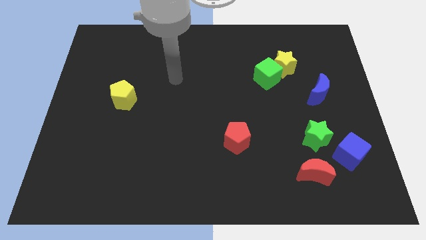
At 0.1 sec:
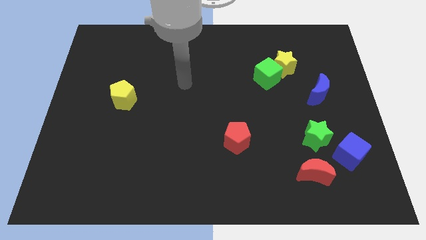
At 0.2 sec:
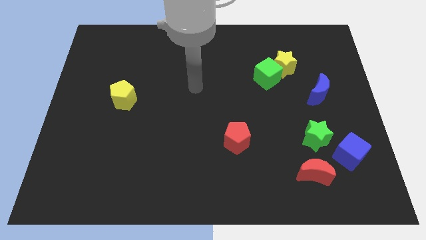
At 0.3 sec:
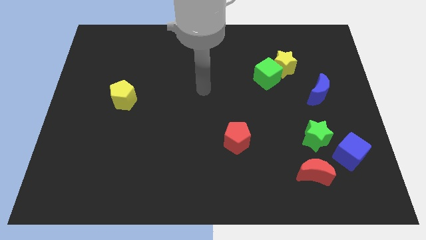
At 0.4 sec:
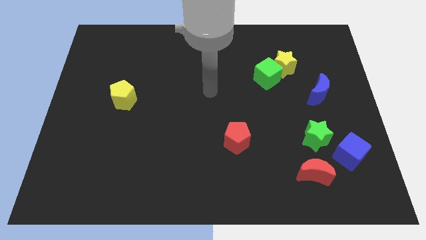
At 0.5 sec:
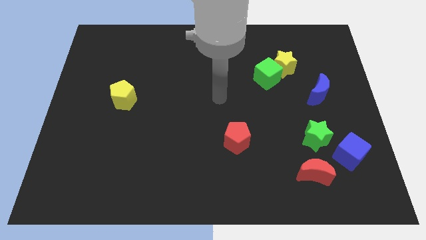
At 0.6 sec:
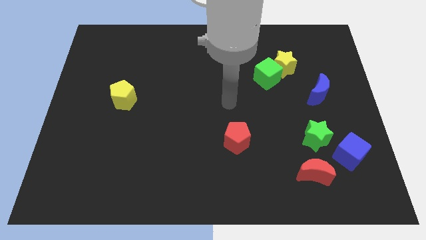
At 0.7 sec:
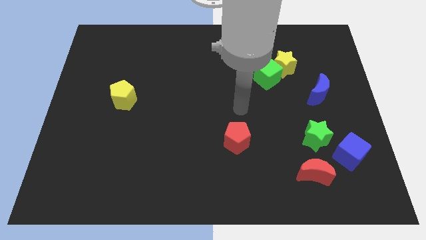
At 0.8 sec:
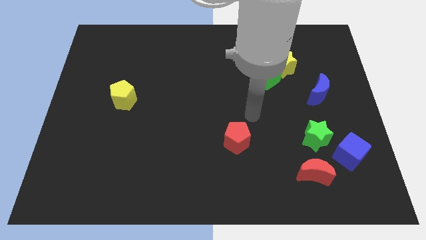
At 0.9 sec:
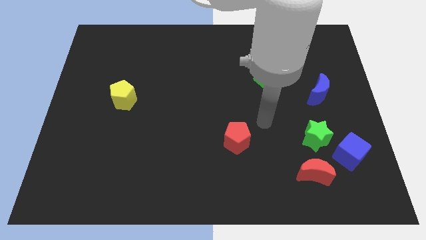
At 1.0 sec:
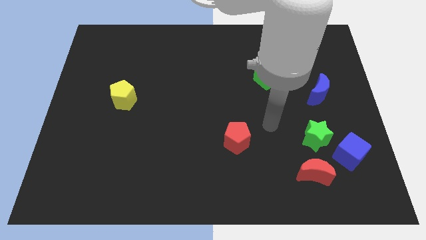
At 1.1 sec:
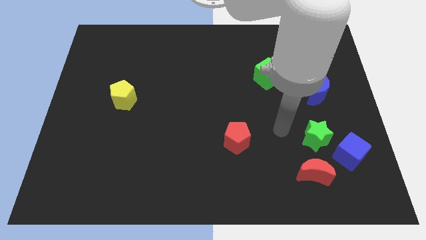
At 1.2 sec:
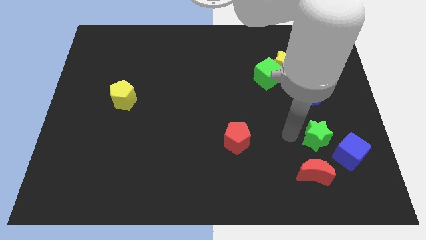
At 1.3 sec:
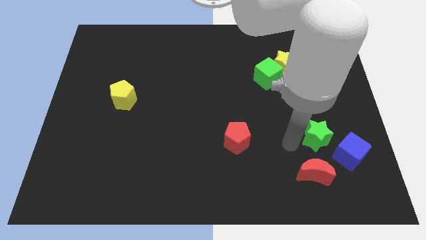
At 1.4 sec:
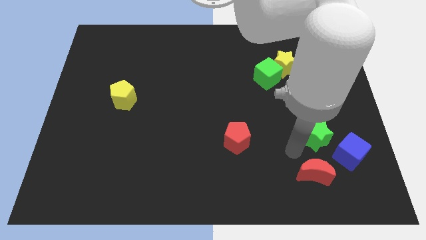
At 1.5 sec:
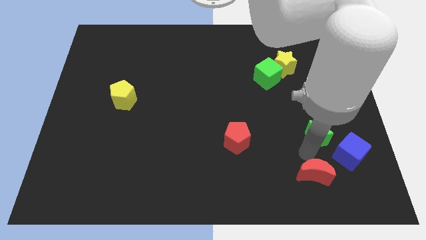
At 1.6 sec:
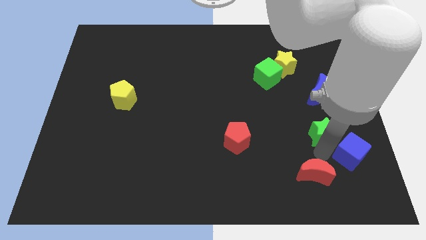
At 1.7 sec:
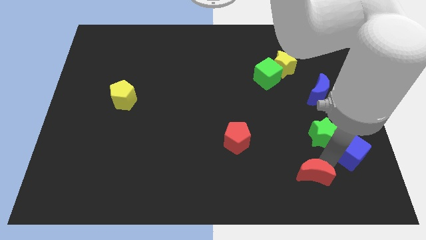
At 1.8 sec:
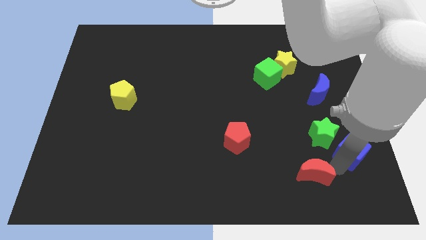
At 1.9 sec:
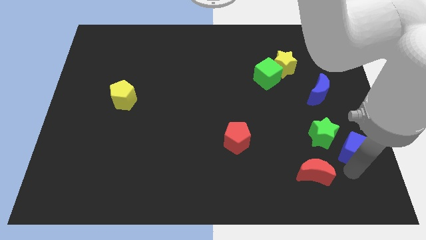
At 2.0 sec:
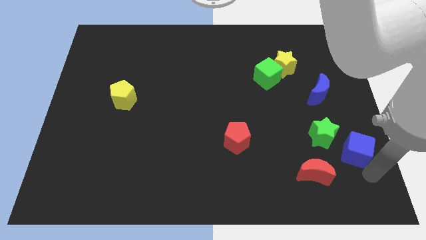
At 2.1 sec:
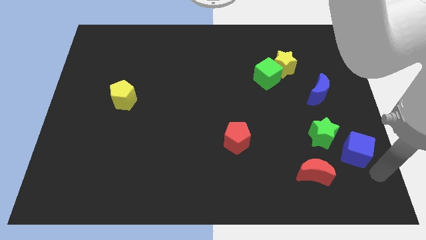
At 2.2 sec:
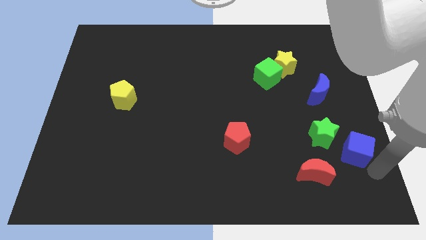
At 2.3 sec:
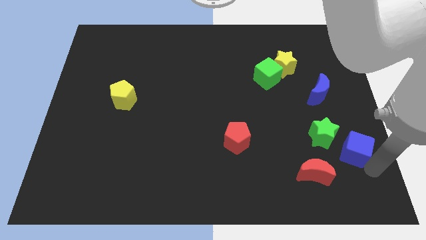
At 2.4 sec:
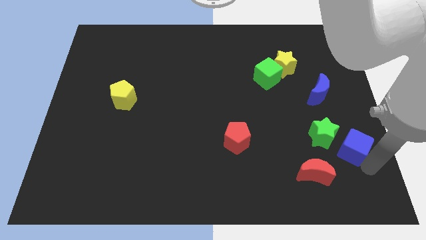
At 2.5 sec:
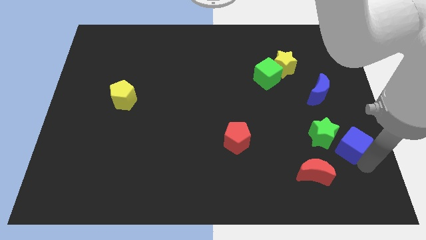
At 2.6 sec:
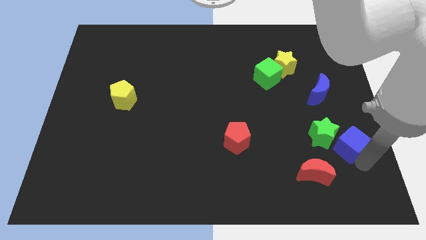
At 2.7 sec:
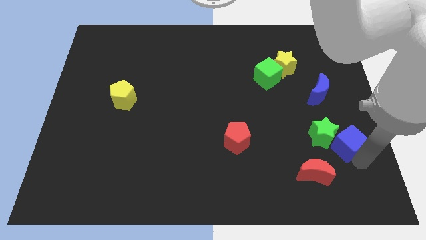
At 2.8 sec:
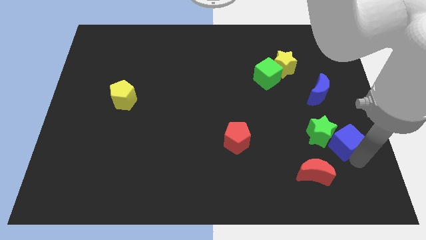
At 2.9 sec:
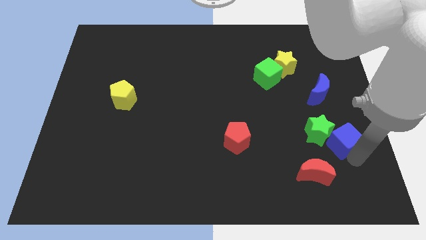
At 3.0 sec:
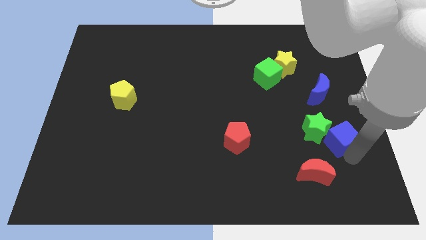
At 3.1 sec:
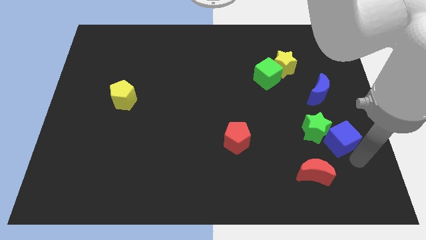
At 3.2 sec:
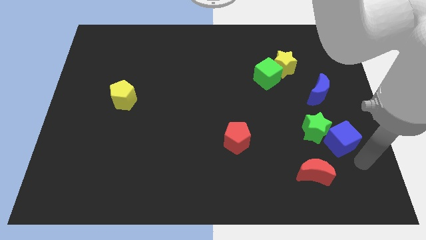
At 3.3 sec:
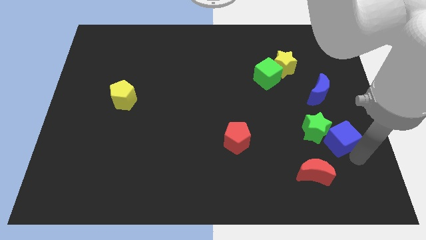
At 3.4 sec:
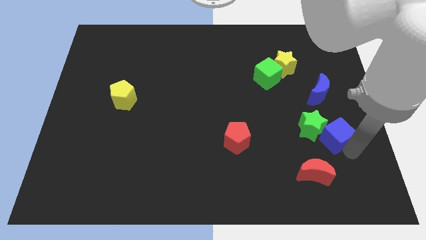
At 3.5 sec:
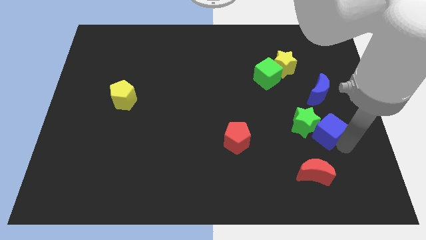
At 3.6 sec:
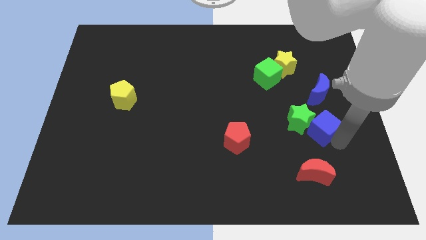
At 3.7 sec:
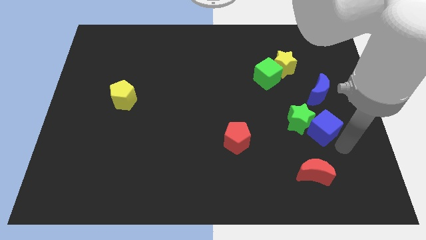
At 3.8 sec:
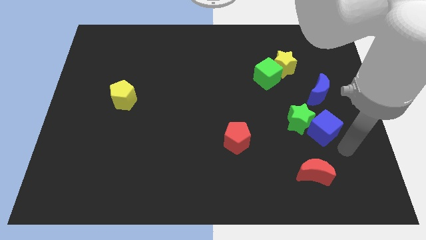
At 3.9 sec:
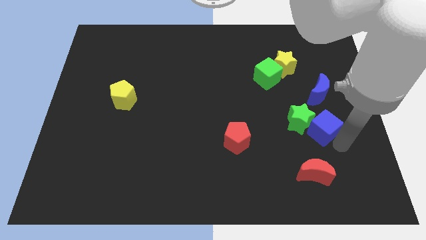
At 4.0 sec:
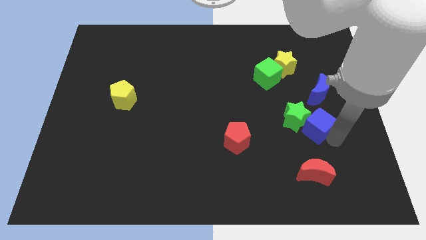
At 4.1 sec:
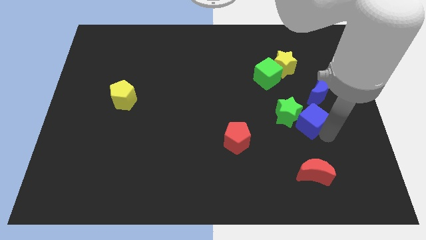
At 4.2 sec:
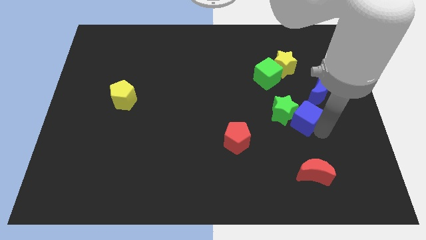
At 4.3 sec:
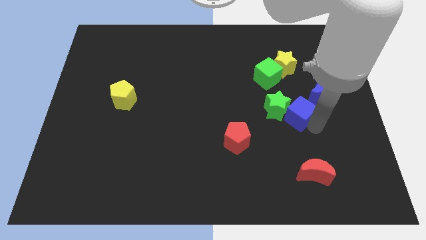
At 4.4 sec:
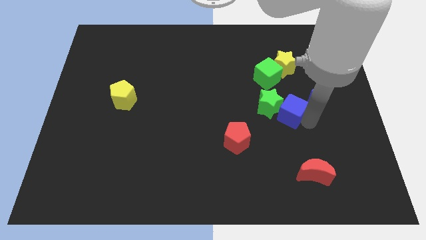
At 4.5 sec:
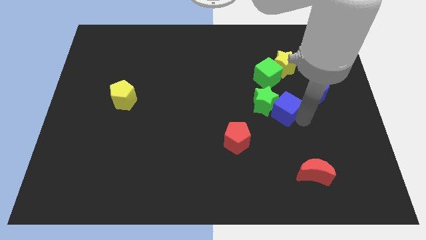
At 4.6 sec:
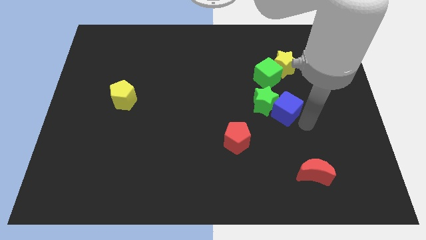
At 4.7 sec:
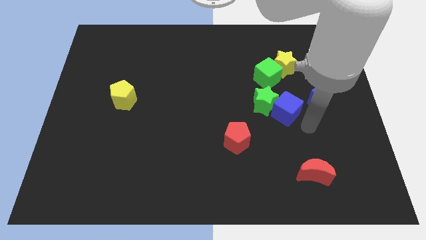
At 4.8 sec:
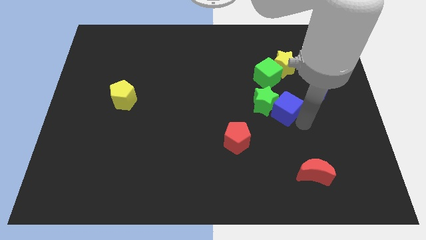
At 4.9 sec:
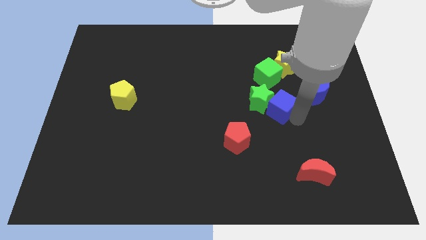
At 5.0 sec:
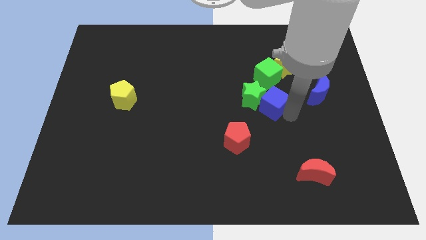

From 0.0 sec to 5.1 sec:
push the blue cube up and to the left

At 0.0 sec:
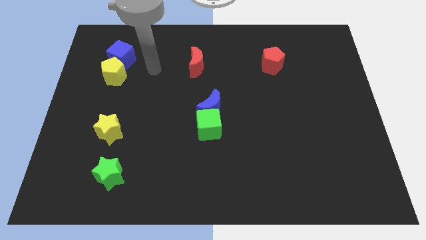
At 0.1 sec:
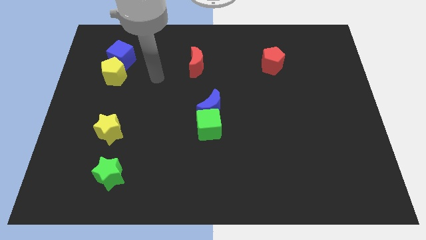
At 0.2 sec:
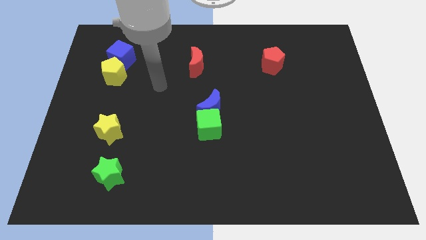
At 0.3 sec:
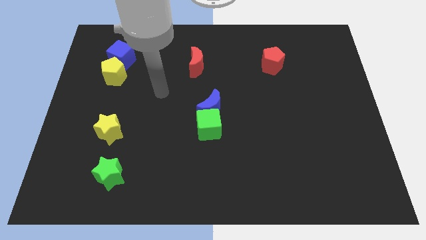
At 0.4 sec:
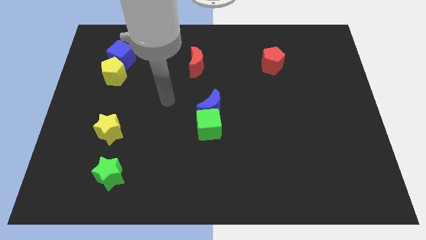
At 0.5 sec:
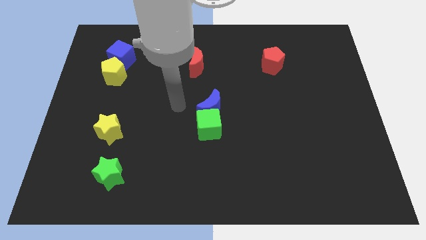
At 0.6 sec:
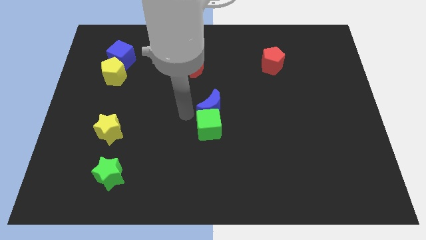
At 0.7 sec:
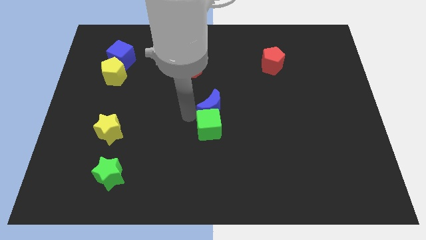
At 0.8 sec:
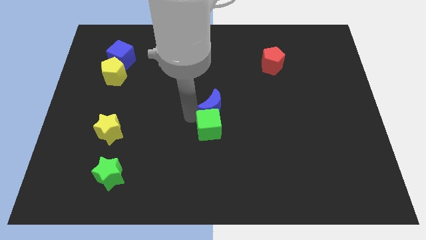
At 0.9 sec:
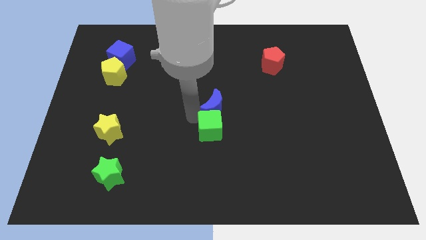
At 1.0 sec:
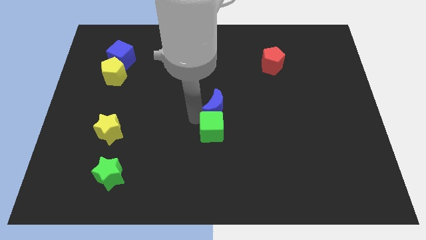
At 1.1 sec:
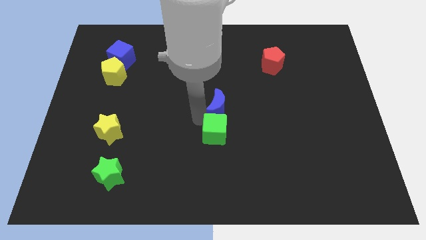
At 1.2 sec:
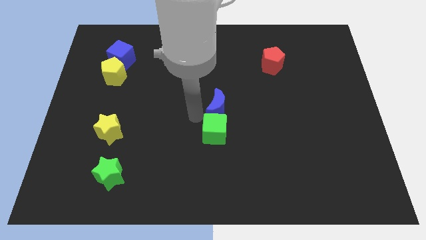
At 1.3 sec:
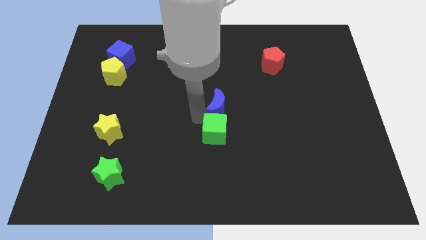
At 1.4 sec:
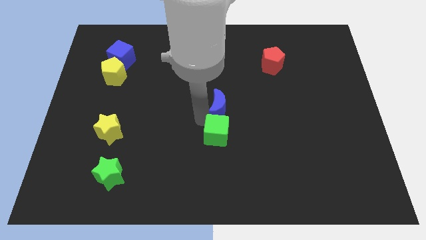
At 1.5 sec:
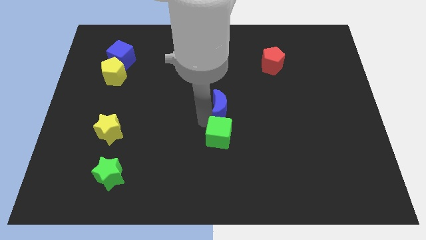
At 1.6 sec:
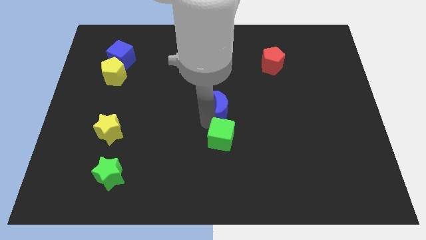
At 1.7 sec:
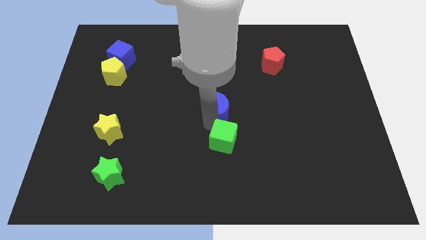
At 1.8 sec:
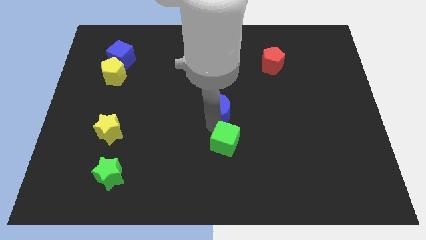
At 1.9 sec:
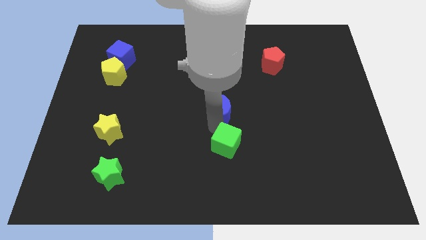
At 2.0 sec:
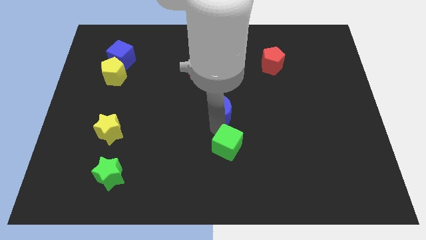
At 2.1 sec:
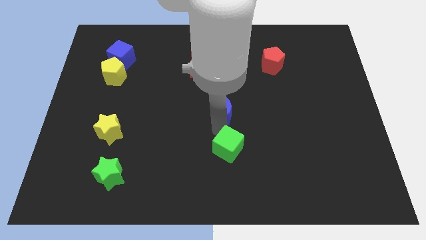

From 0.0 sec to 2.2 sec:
slide the green cube a little down and right

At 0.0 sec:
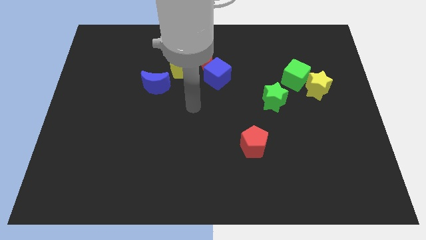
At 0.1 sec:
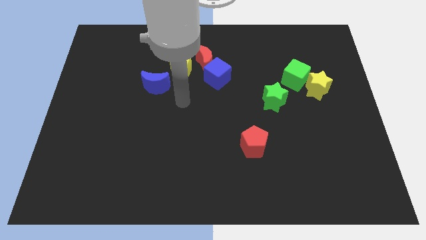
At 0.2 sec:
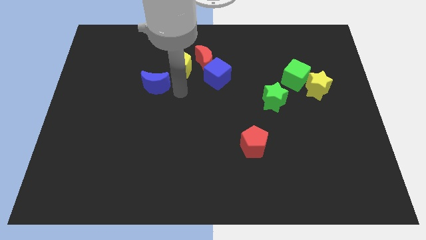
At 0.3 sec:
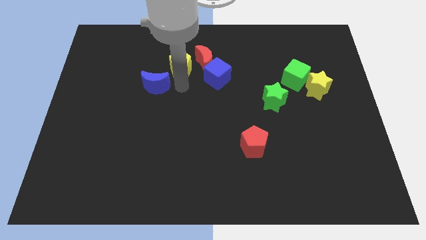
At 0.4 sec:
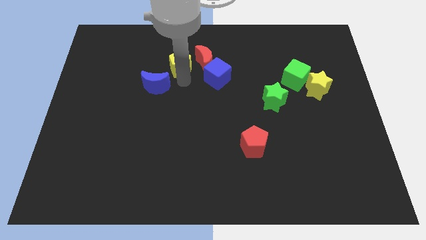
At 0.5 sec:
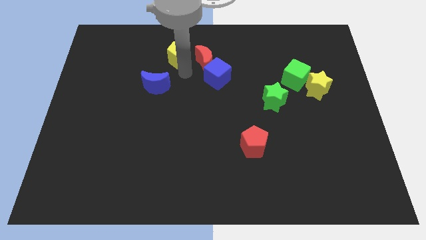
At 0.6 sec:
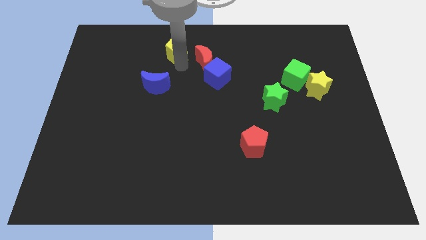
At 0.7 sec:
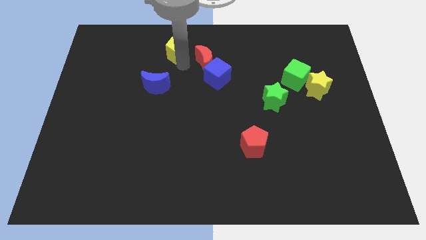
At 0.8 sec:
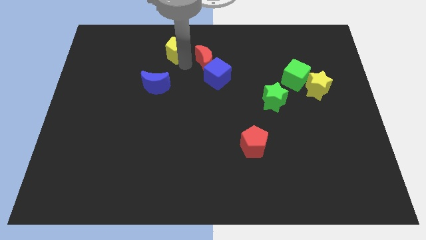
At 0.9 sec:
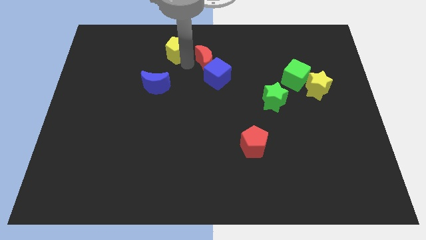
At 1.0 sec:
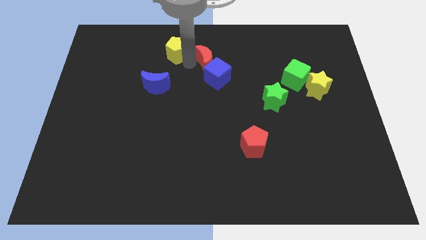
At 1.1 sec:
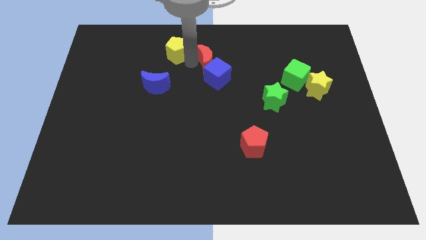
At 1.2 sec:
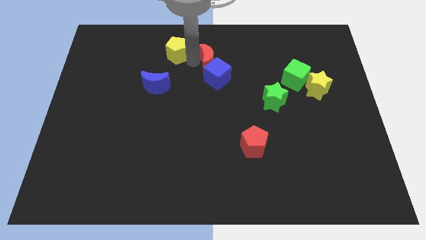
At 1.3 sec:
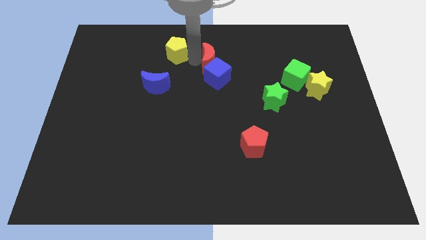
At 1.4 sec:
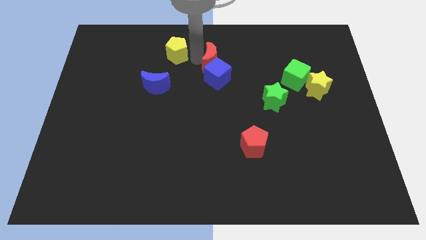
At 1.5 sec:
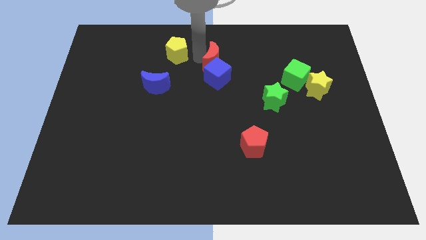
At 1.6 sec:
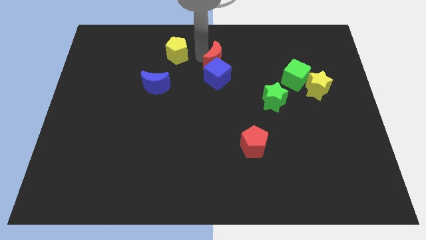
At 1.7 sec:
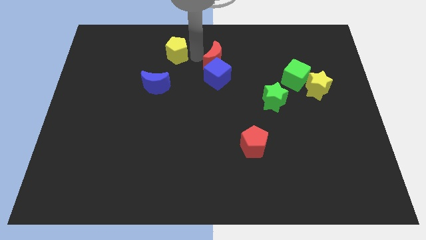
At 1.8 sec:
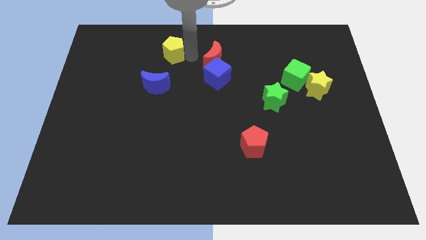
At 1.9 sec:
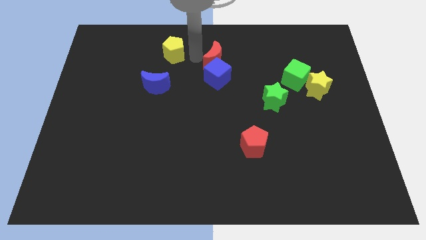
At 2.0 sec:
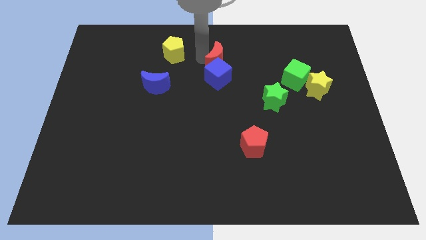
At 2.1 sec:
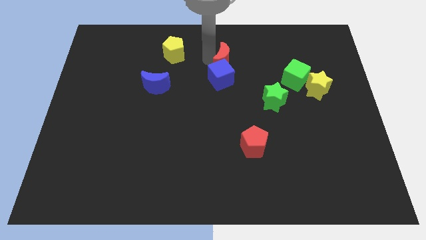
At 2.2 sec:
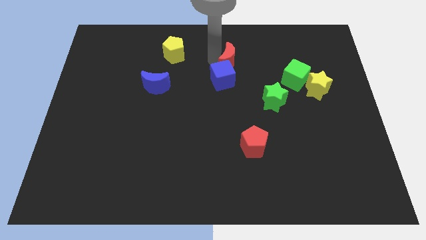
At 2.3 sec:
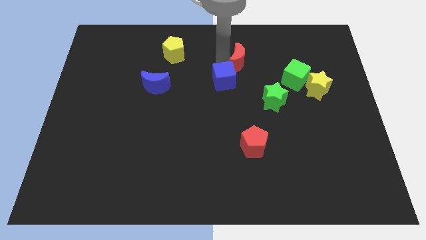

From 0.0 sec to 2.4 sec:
push the red moon to the right a little bit
